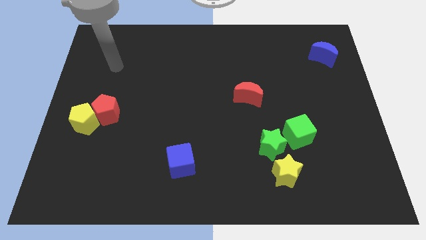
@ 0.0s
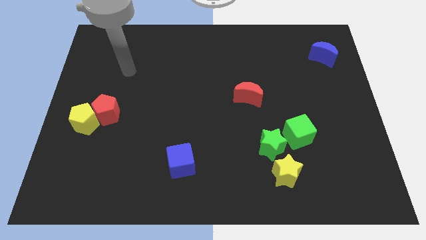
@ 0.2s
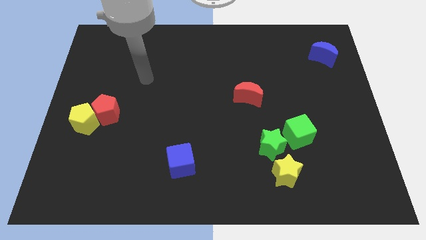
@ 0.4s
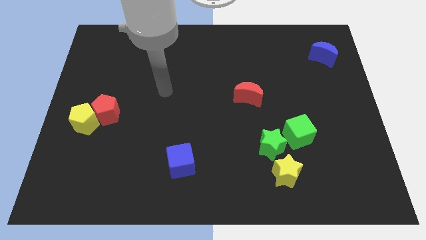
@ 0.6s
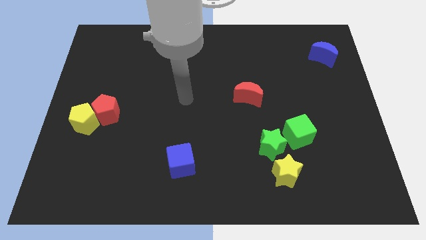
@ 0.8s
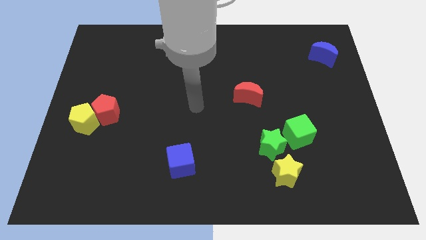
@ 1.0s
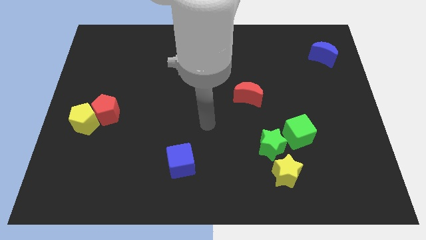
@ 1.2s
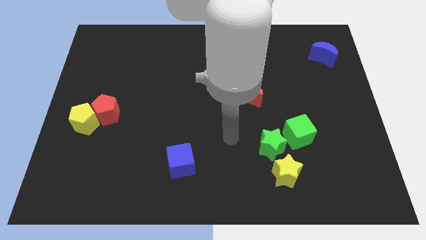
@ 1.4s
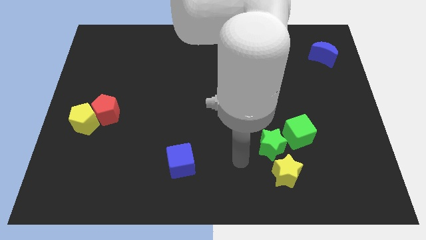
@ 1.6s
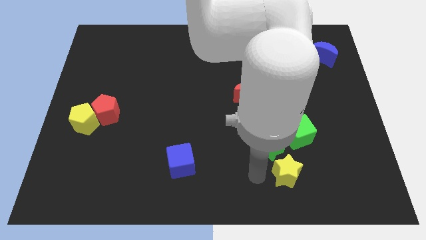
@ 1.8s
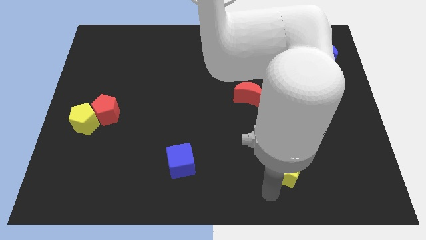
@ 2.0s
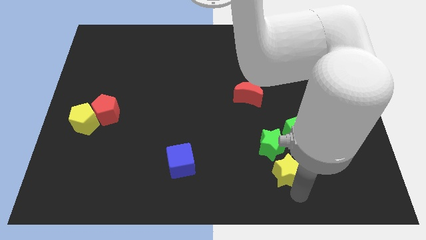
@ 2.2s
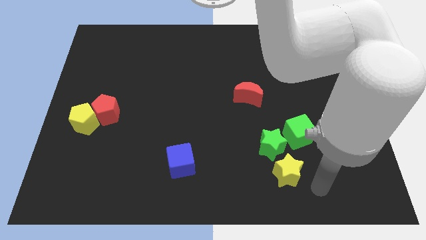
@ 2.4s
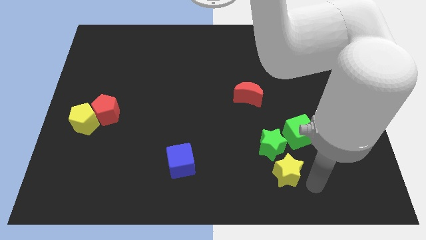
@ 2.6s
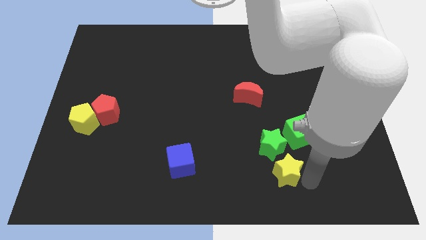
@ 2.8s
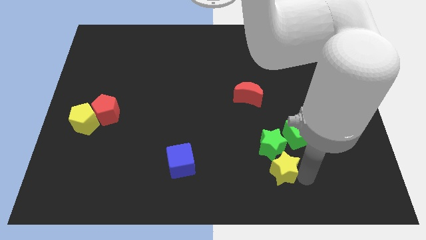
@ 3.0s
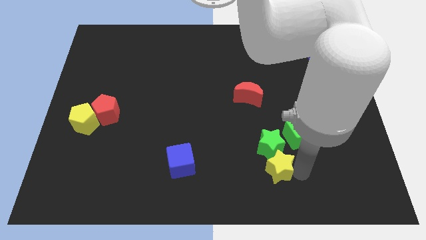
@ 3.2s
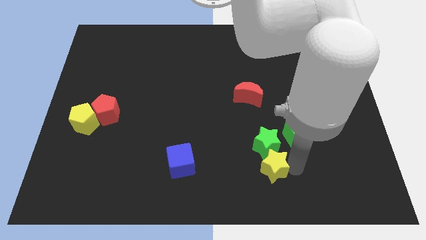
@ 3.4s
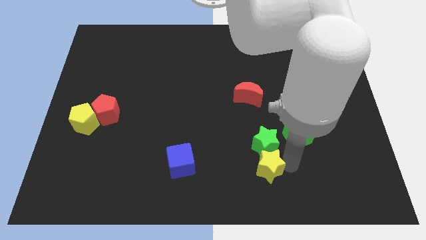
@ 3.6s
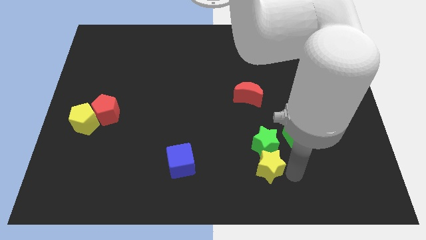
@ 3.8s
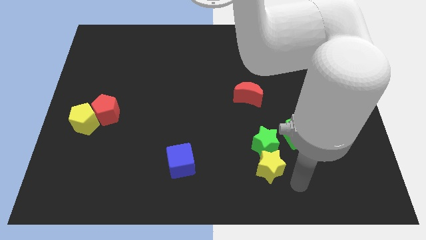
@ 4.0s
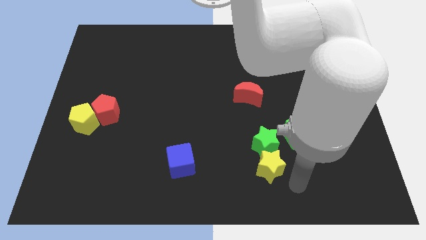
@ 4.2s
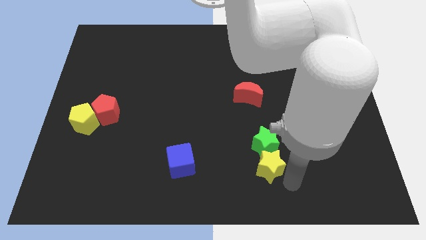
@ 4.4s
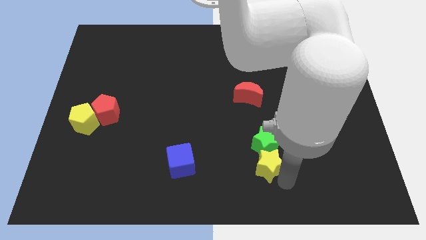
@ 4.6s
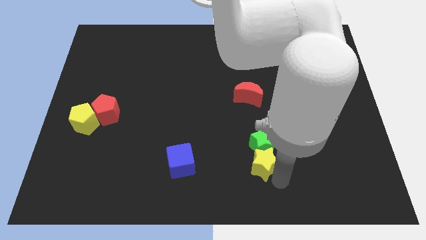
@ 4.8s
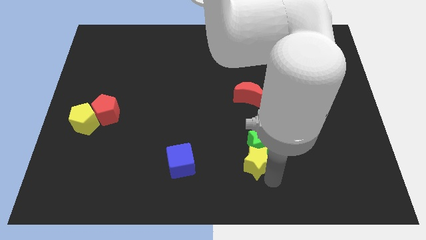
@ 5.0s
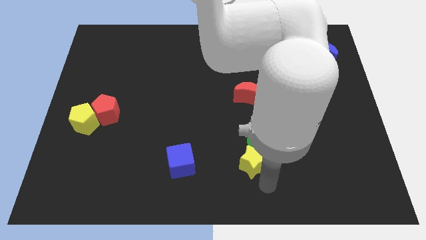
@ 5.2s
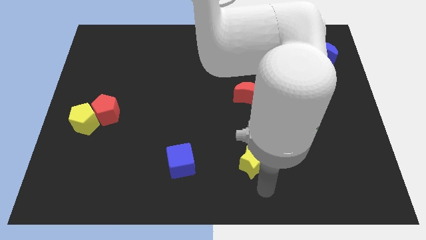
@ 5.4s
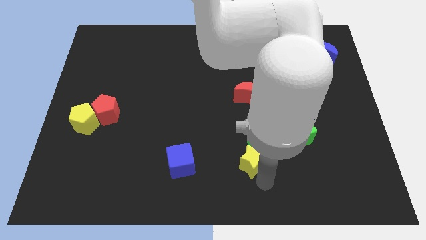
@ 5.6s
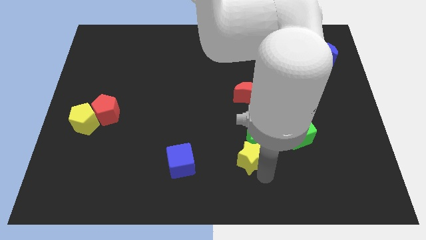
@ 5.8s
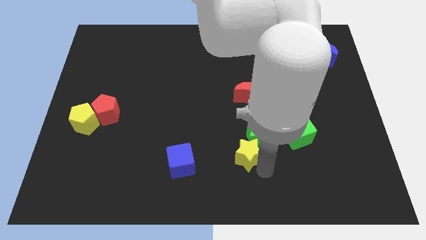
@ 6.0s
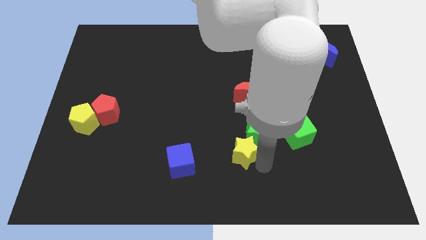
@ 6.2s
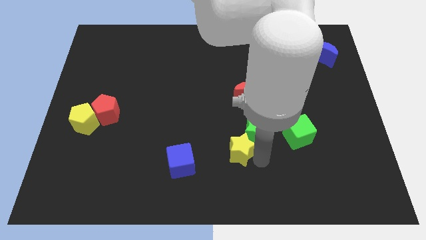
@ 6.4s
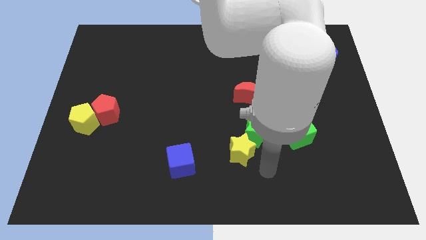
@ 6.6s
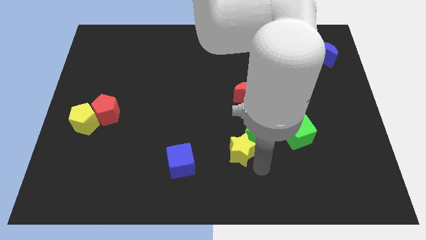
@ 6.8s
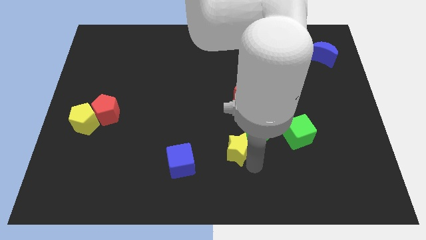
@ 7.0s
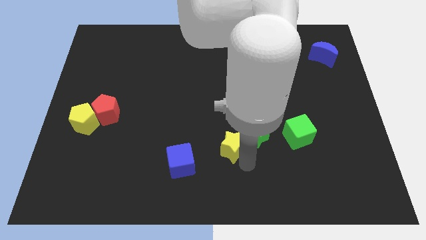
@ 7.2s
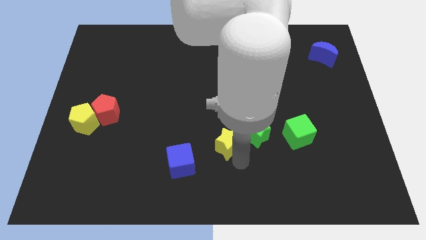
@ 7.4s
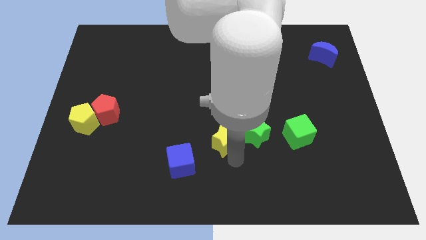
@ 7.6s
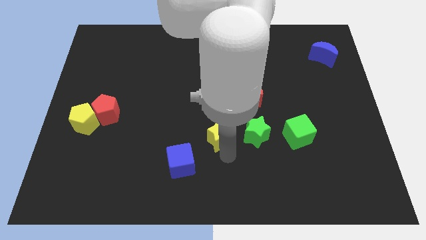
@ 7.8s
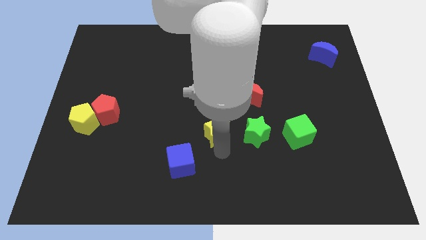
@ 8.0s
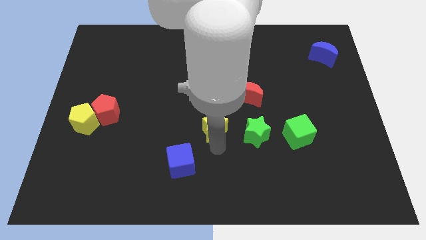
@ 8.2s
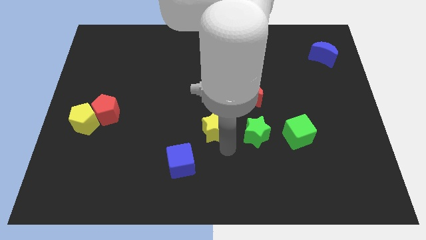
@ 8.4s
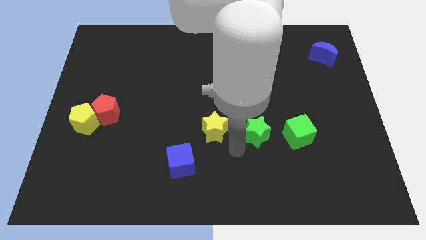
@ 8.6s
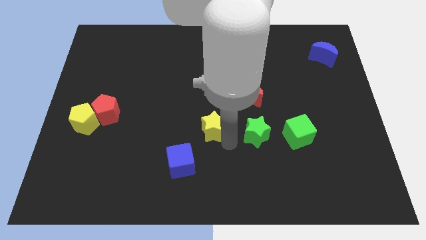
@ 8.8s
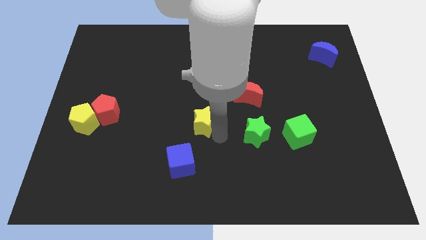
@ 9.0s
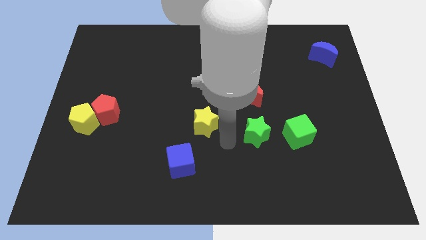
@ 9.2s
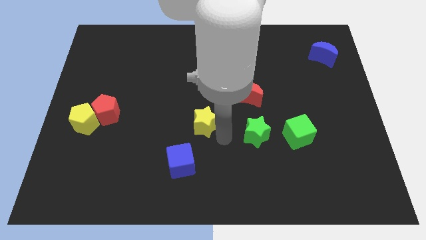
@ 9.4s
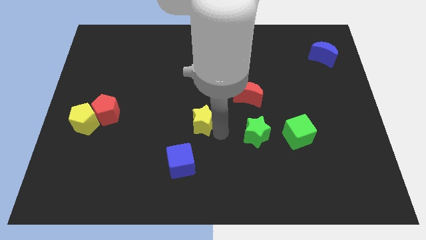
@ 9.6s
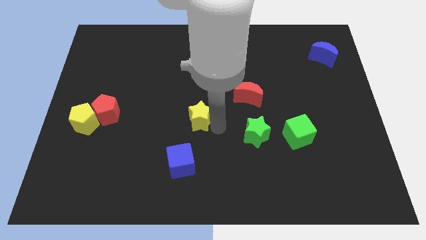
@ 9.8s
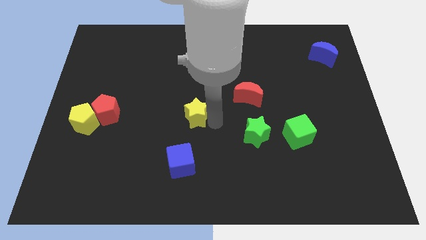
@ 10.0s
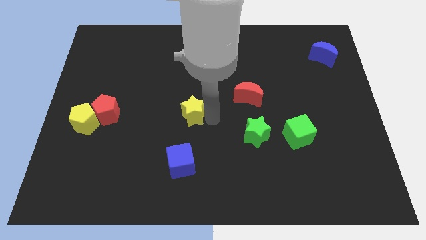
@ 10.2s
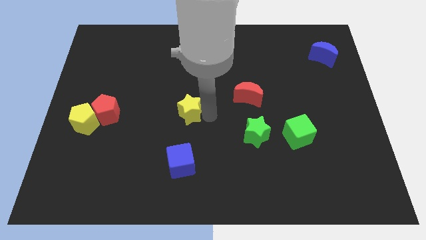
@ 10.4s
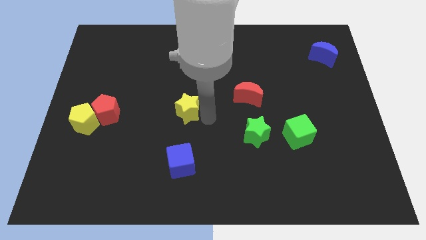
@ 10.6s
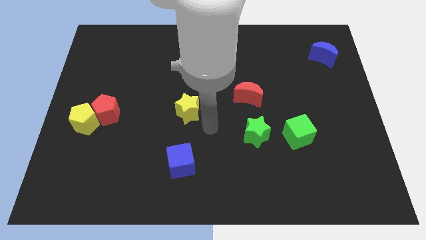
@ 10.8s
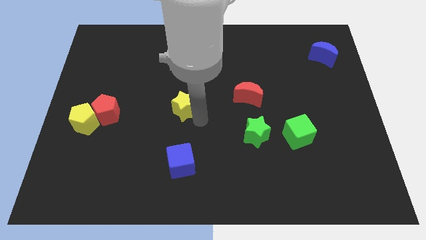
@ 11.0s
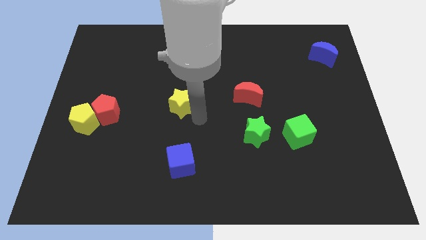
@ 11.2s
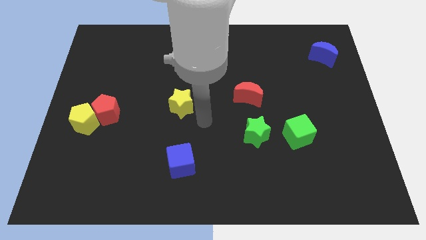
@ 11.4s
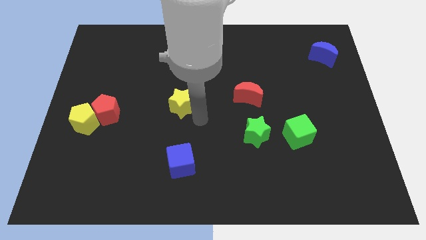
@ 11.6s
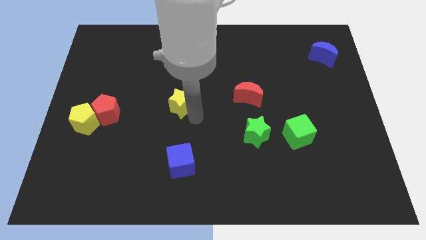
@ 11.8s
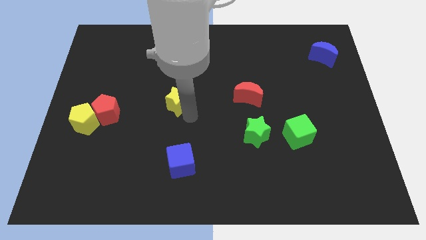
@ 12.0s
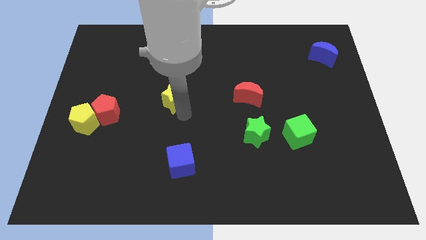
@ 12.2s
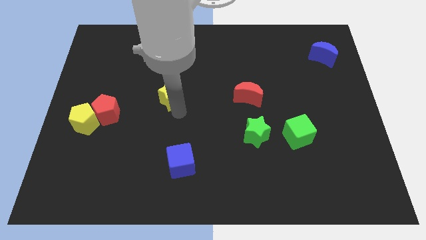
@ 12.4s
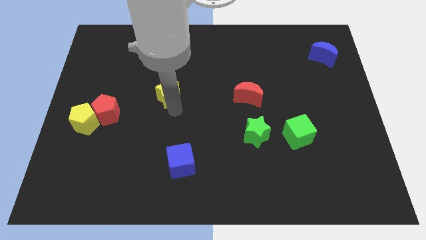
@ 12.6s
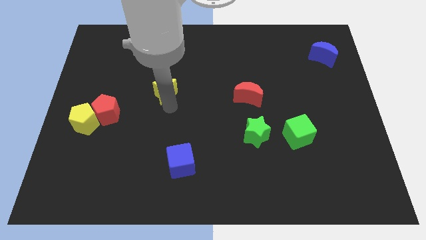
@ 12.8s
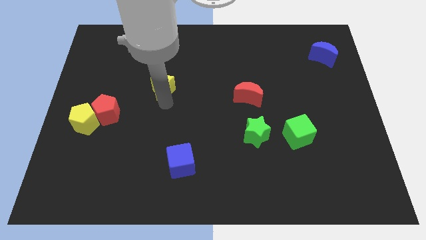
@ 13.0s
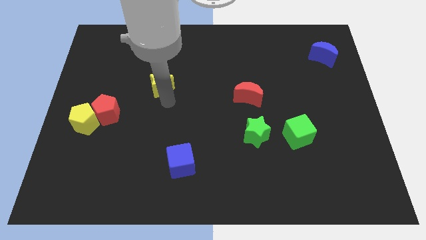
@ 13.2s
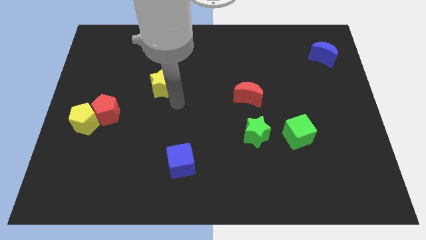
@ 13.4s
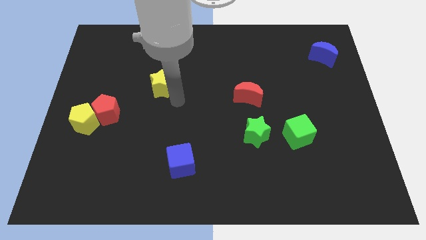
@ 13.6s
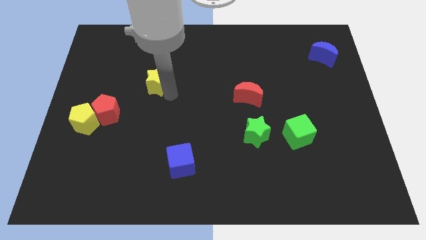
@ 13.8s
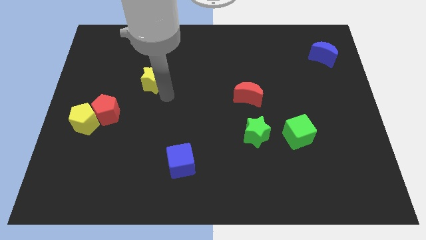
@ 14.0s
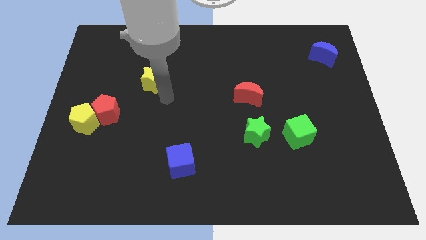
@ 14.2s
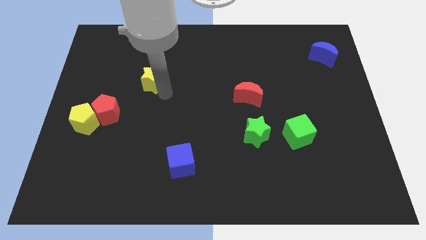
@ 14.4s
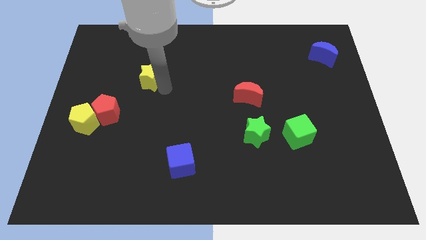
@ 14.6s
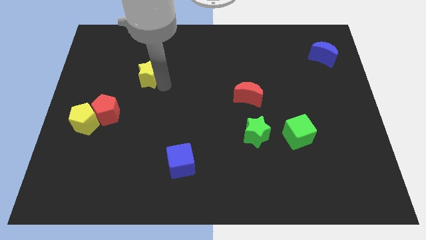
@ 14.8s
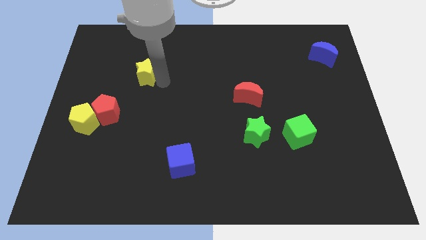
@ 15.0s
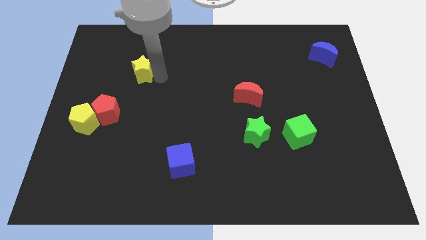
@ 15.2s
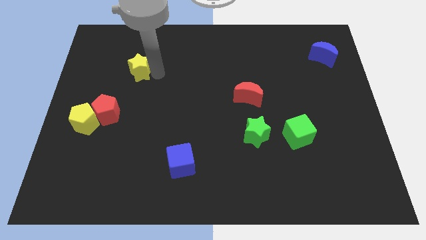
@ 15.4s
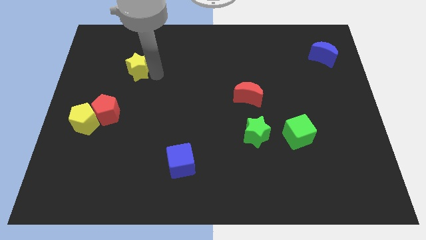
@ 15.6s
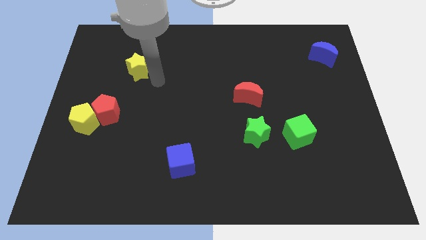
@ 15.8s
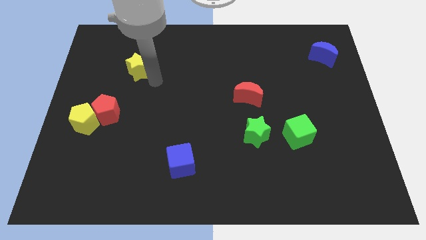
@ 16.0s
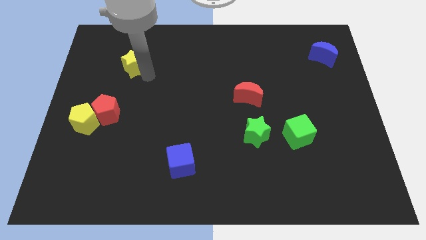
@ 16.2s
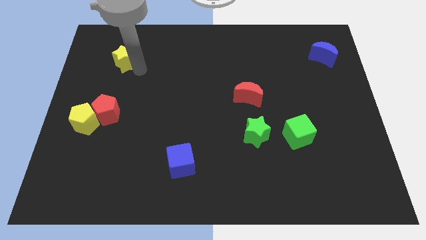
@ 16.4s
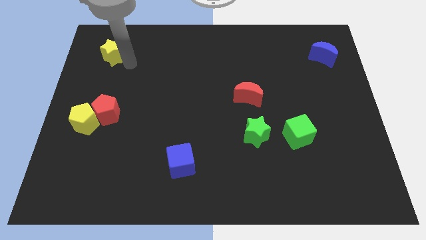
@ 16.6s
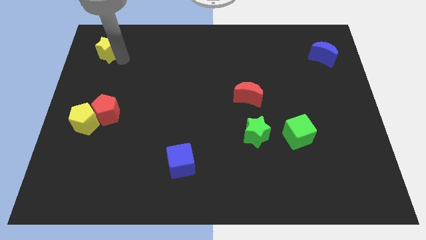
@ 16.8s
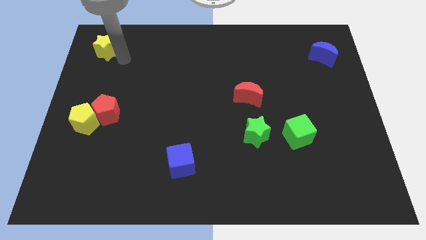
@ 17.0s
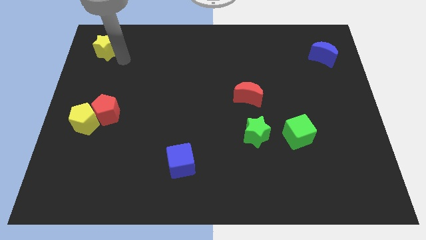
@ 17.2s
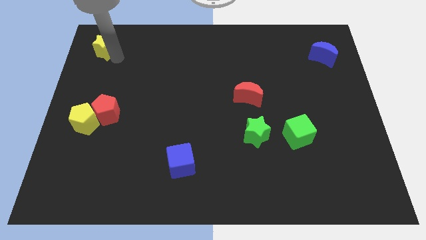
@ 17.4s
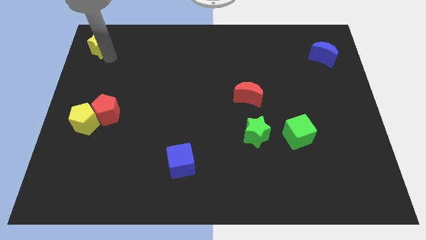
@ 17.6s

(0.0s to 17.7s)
push the yellow star to the top left of the board
